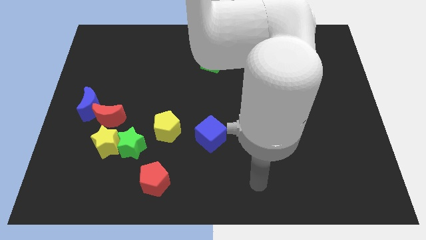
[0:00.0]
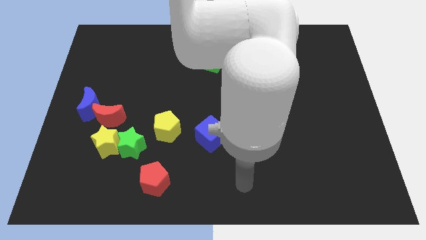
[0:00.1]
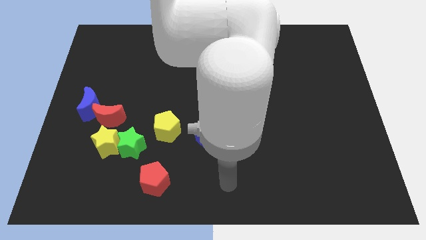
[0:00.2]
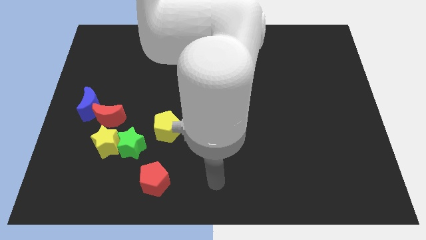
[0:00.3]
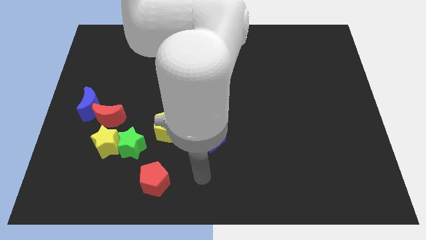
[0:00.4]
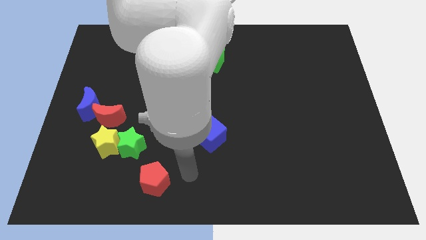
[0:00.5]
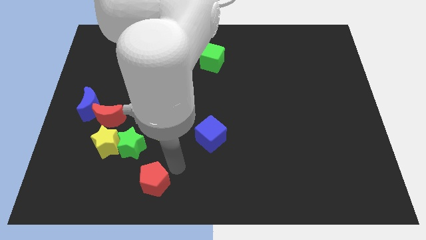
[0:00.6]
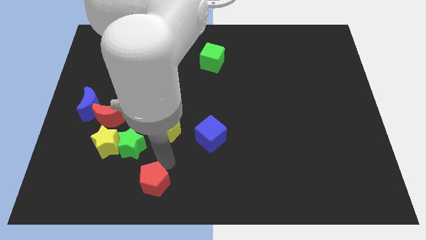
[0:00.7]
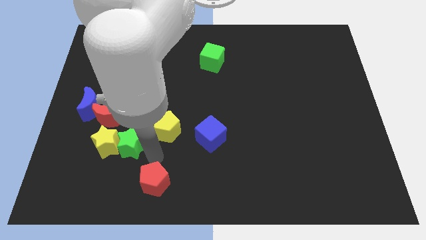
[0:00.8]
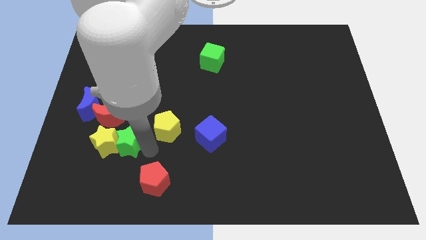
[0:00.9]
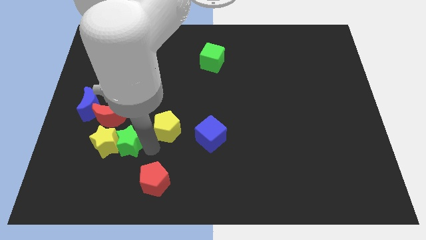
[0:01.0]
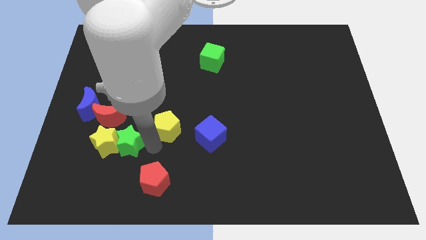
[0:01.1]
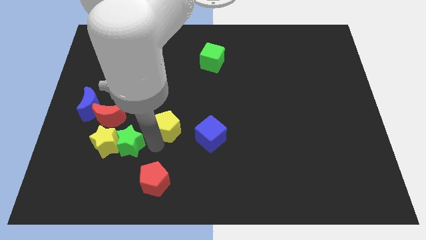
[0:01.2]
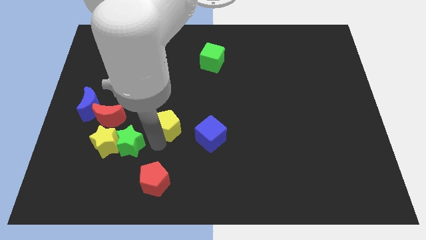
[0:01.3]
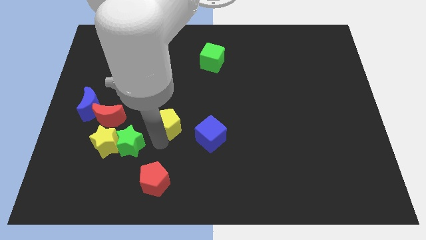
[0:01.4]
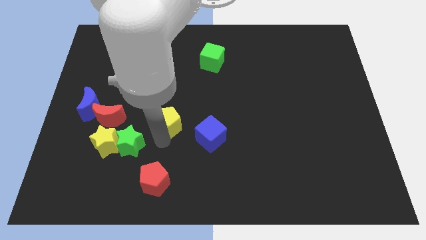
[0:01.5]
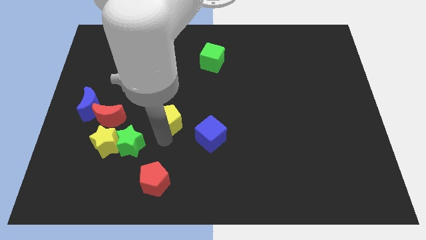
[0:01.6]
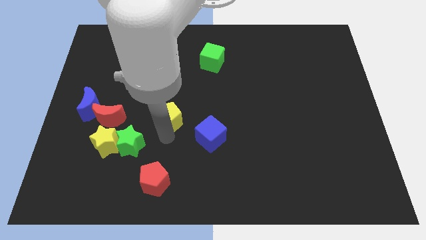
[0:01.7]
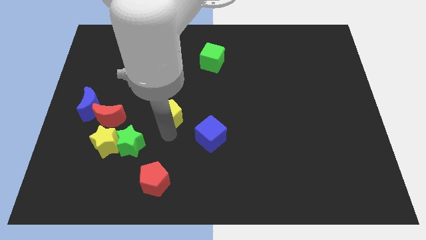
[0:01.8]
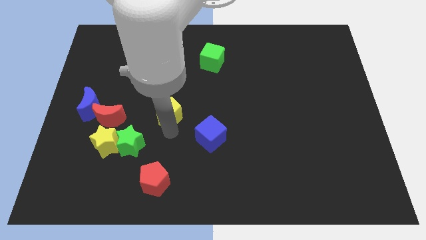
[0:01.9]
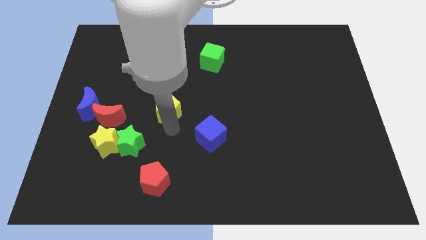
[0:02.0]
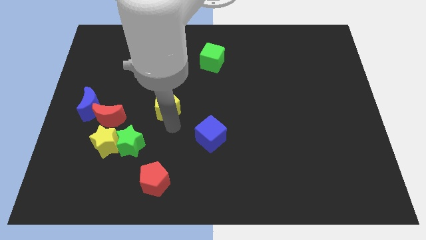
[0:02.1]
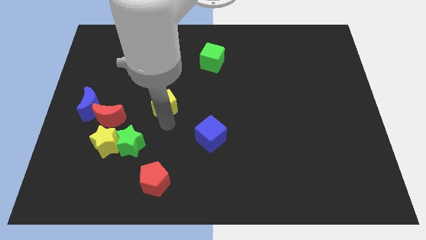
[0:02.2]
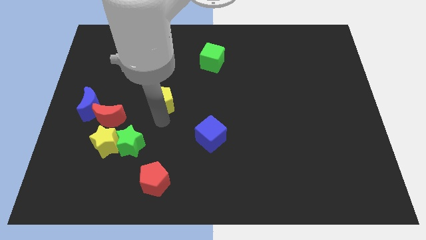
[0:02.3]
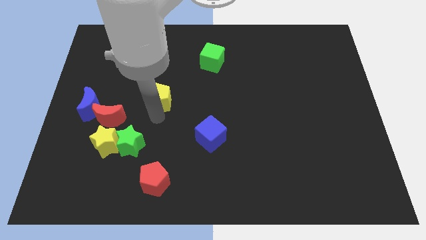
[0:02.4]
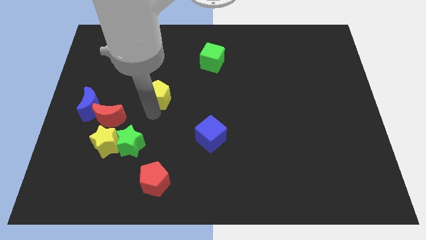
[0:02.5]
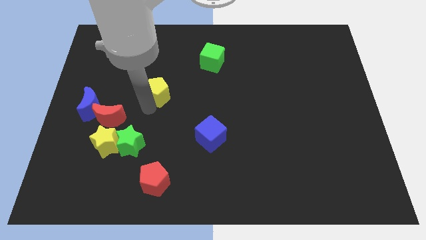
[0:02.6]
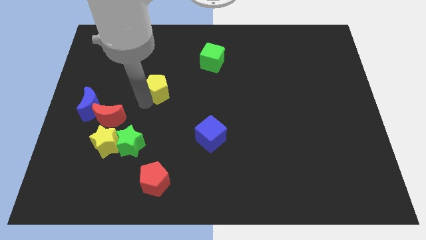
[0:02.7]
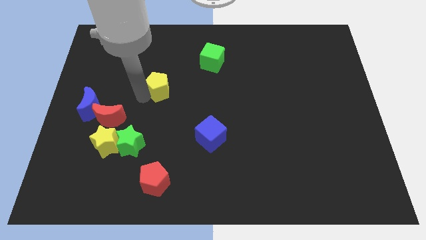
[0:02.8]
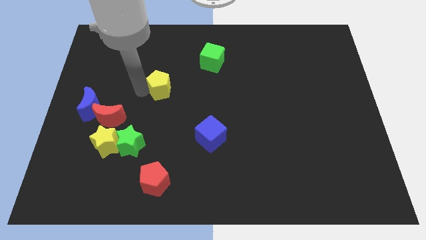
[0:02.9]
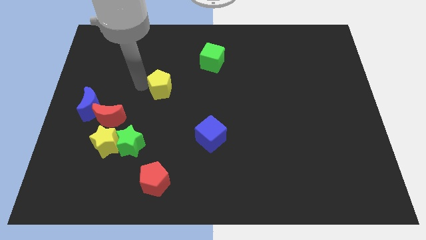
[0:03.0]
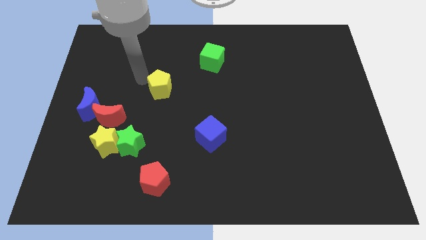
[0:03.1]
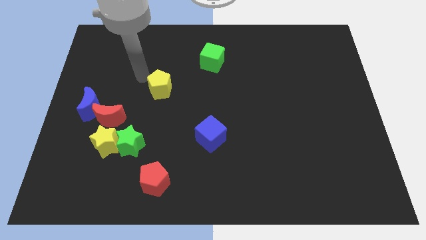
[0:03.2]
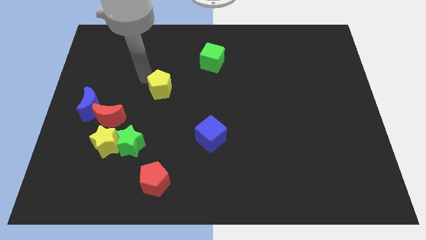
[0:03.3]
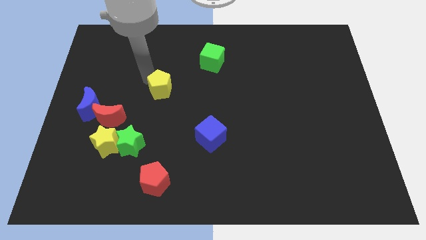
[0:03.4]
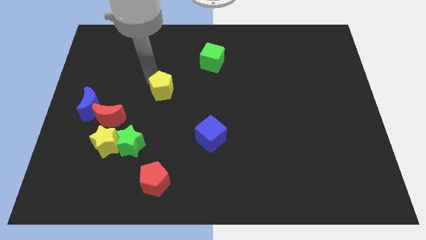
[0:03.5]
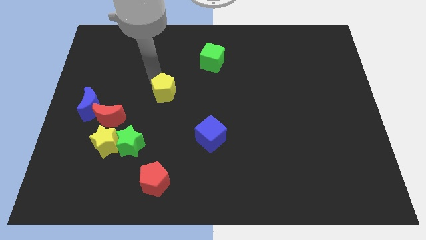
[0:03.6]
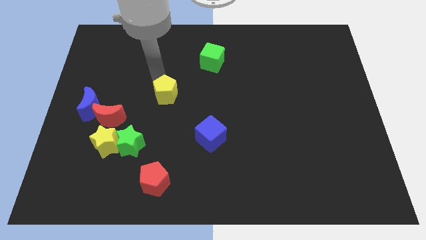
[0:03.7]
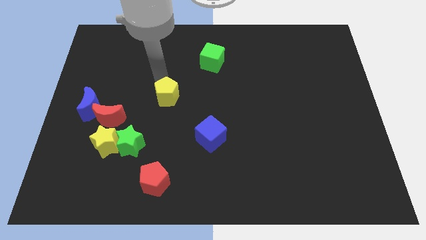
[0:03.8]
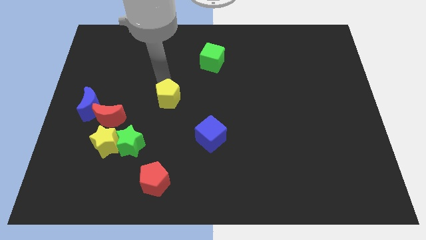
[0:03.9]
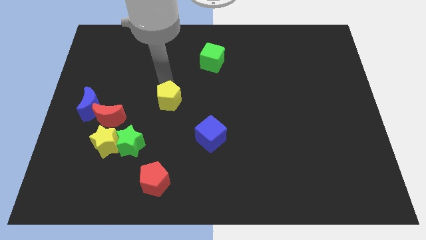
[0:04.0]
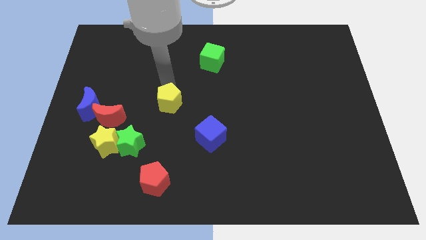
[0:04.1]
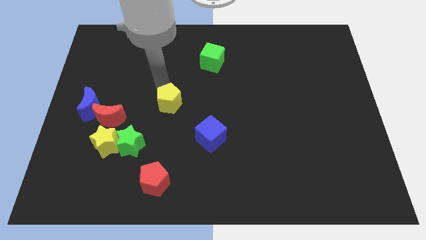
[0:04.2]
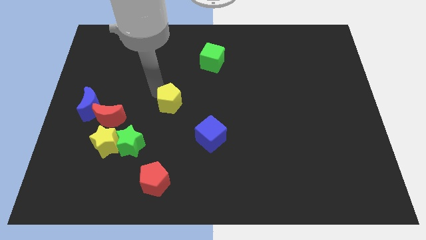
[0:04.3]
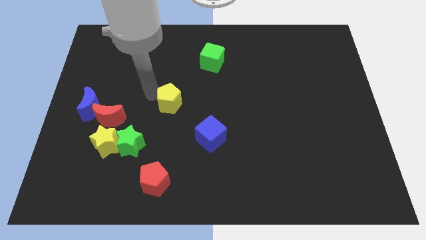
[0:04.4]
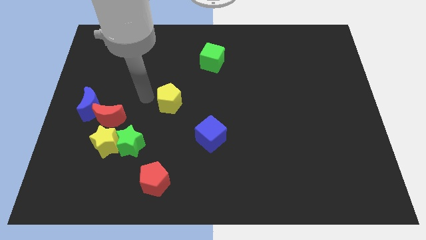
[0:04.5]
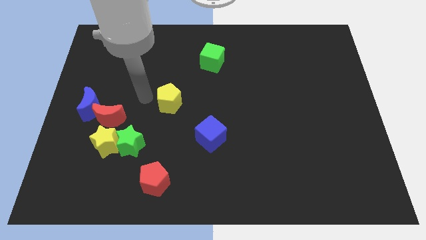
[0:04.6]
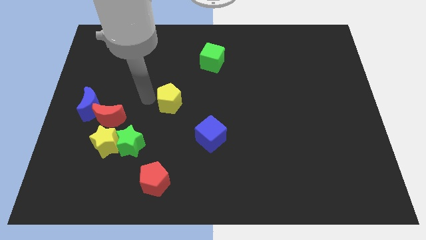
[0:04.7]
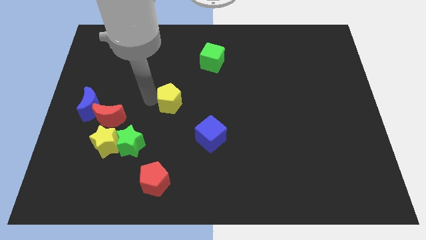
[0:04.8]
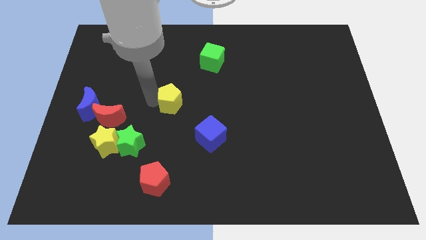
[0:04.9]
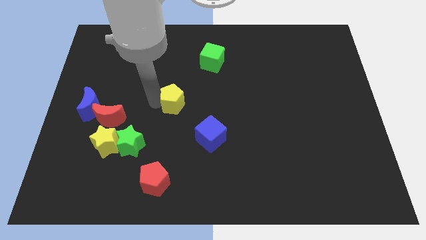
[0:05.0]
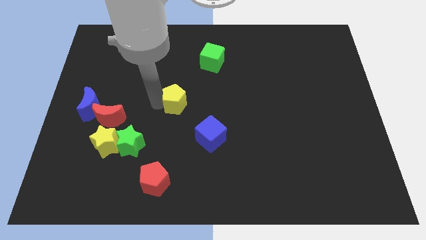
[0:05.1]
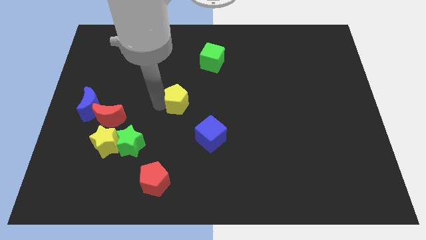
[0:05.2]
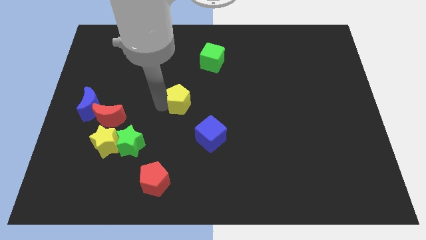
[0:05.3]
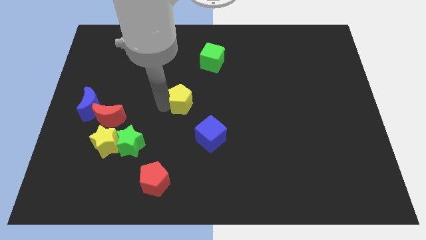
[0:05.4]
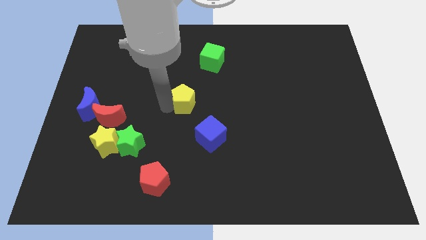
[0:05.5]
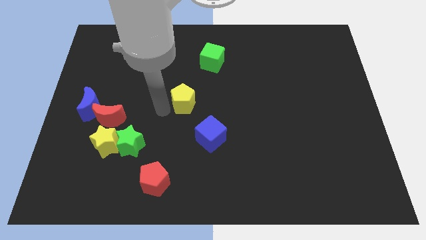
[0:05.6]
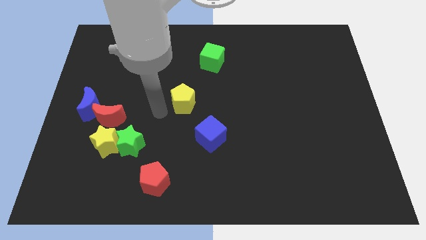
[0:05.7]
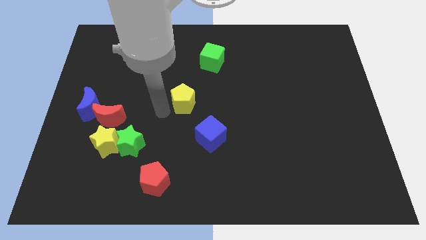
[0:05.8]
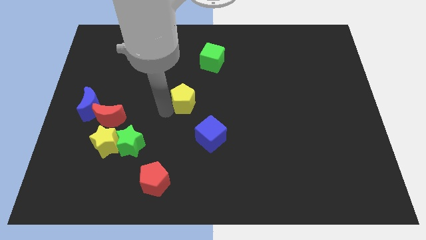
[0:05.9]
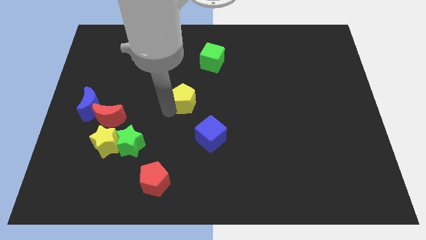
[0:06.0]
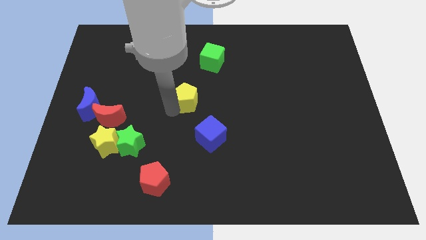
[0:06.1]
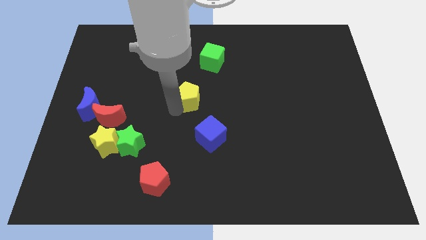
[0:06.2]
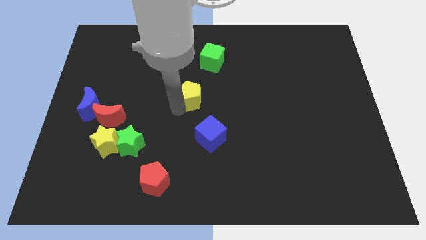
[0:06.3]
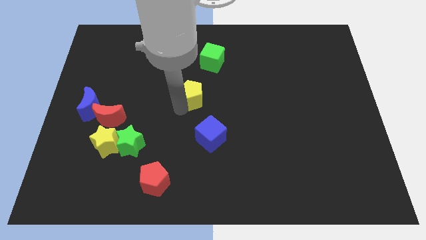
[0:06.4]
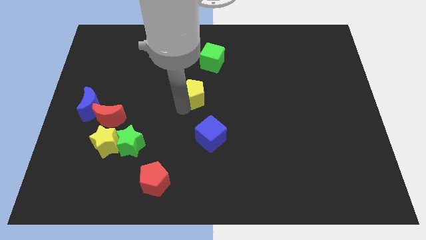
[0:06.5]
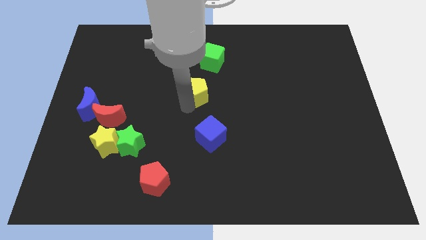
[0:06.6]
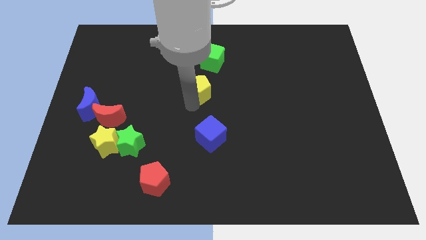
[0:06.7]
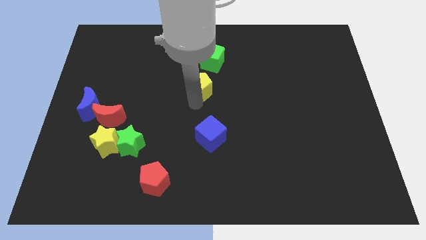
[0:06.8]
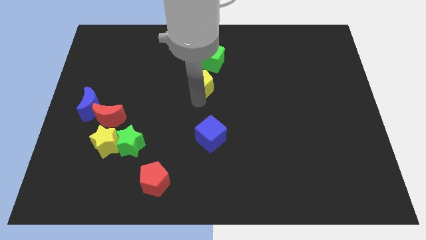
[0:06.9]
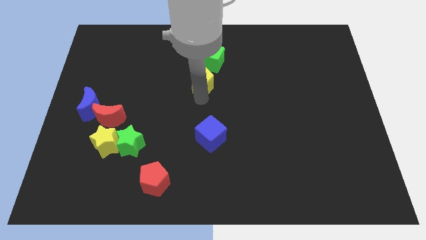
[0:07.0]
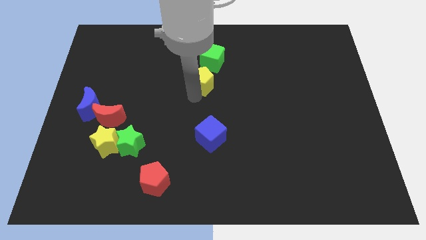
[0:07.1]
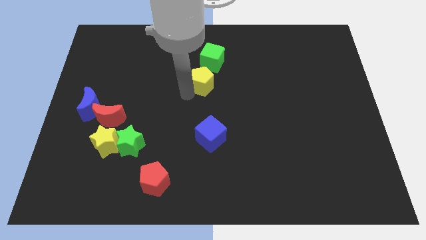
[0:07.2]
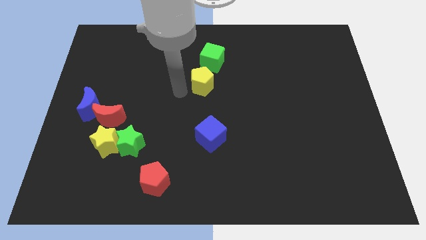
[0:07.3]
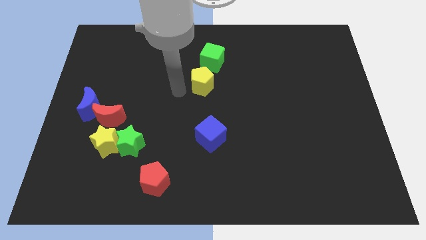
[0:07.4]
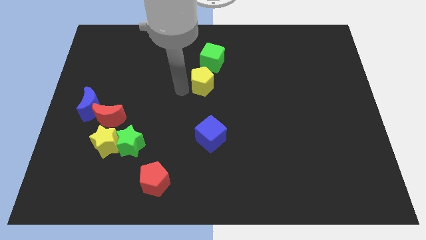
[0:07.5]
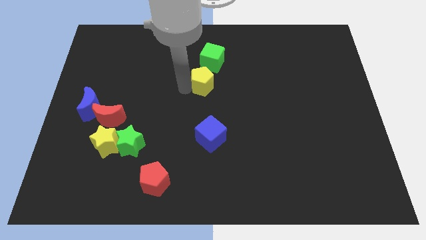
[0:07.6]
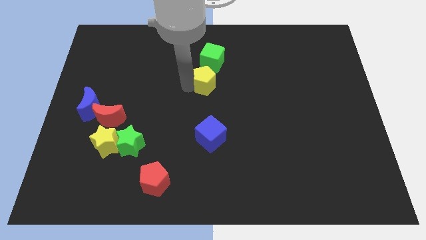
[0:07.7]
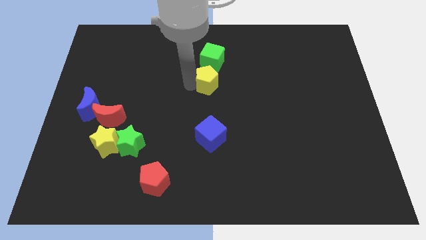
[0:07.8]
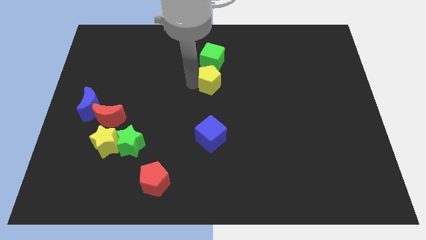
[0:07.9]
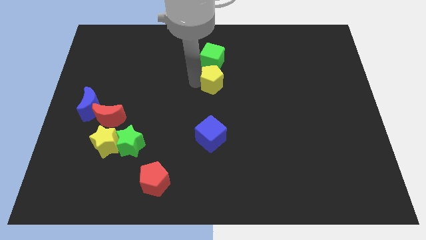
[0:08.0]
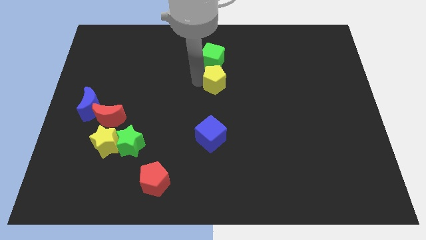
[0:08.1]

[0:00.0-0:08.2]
put the yellow pentagon to the bottom right of the green cube
